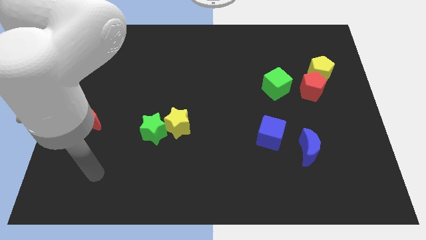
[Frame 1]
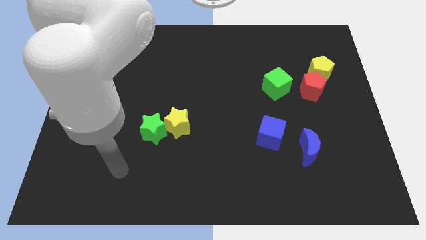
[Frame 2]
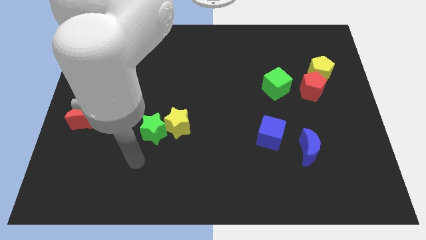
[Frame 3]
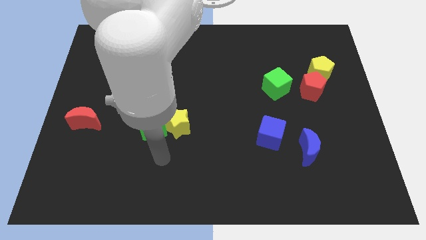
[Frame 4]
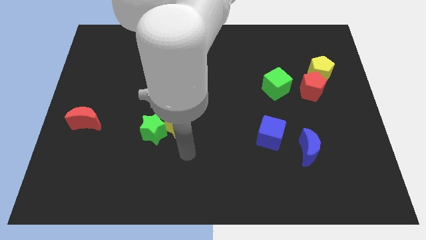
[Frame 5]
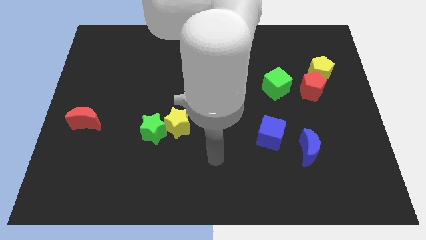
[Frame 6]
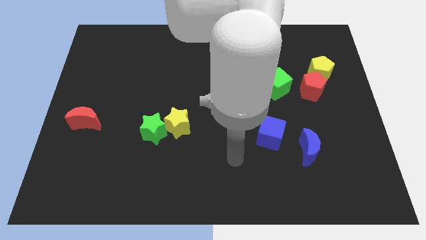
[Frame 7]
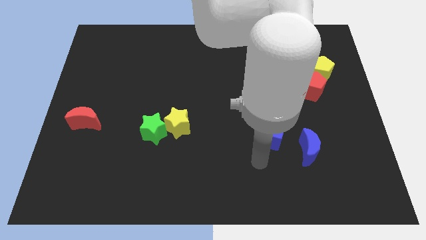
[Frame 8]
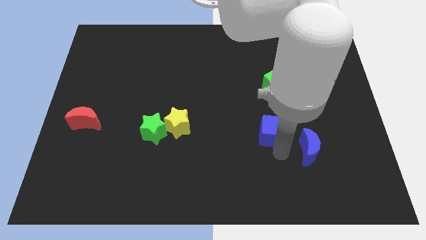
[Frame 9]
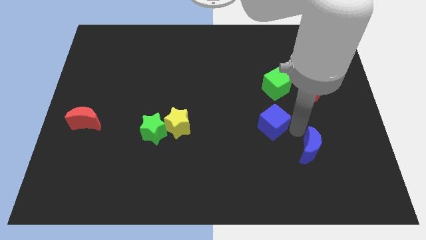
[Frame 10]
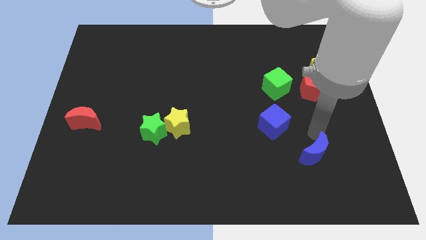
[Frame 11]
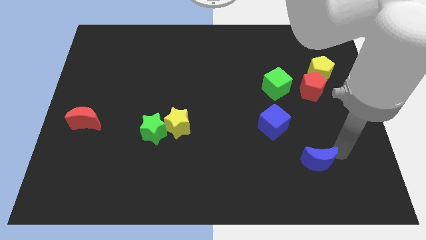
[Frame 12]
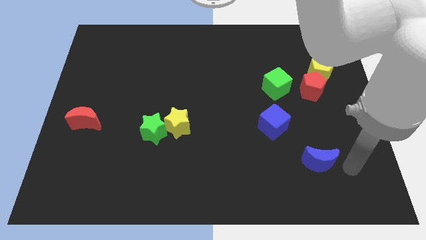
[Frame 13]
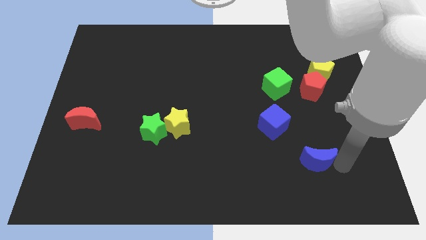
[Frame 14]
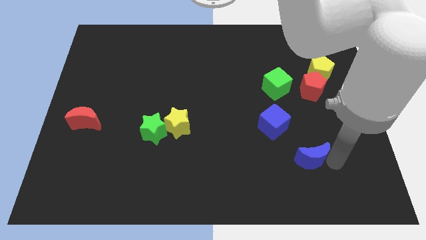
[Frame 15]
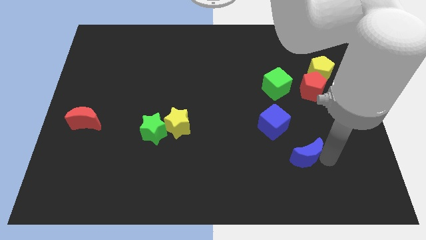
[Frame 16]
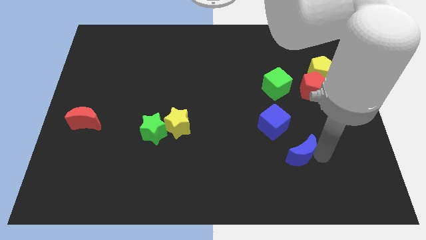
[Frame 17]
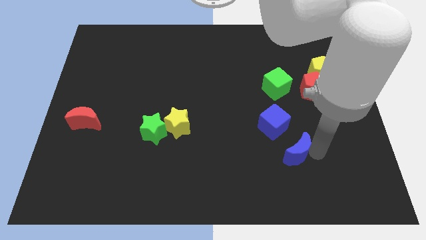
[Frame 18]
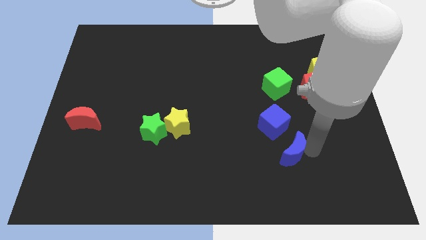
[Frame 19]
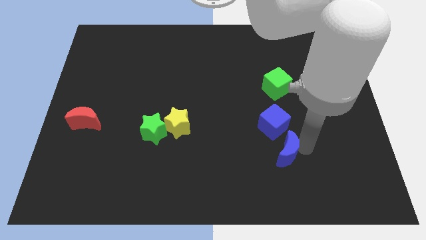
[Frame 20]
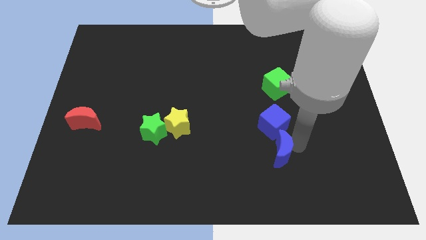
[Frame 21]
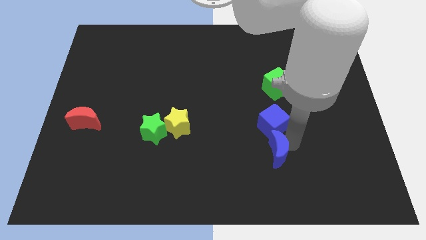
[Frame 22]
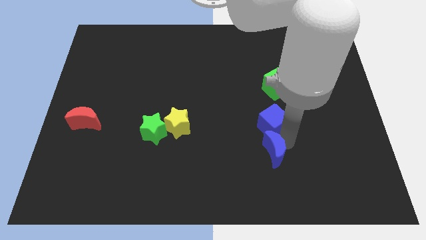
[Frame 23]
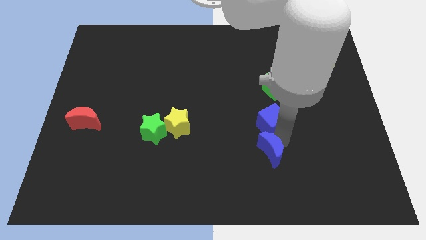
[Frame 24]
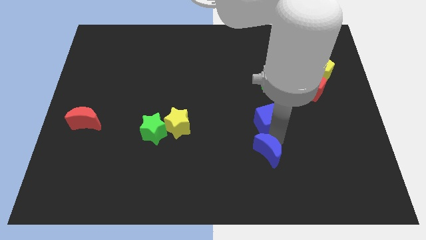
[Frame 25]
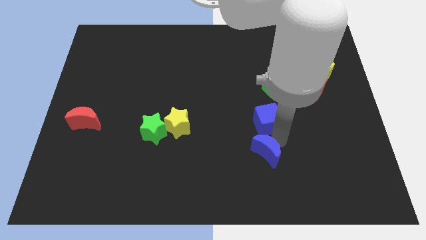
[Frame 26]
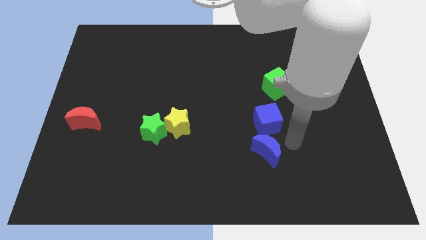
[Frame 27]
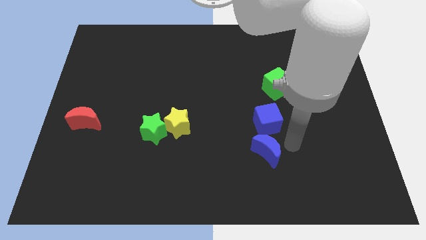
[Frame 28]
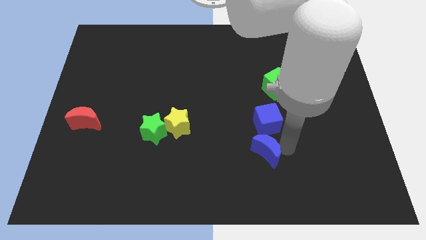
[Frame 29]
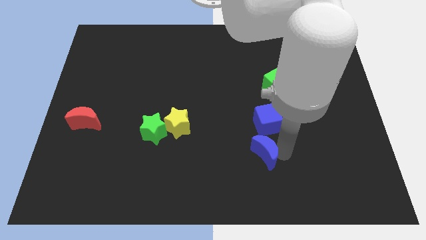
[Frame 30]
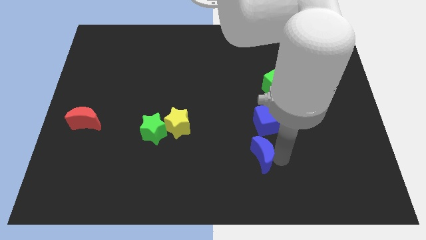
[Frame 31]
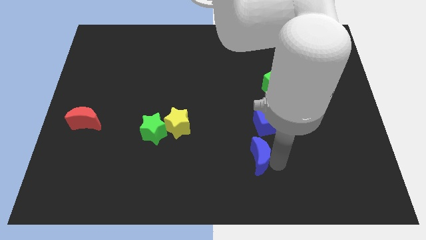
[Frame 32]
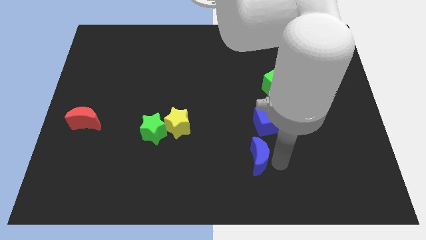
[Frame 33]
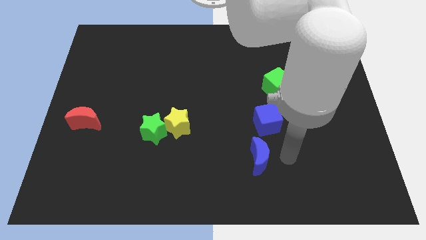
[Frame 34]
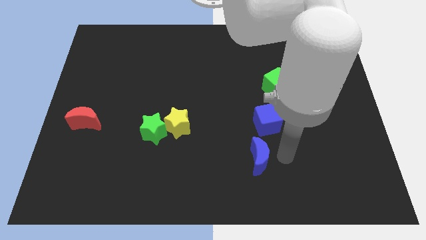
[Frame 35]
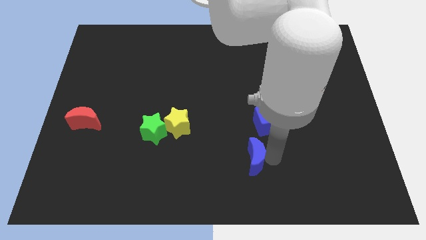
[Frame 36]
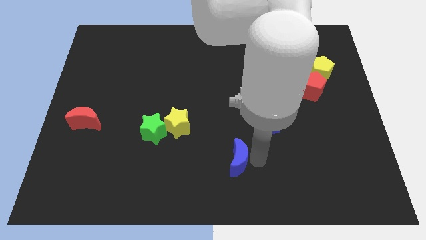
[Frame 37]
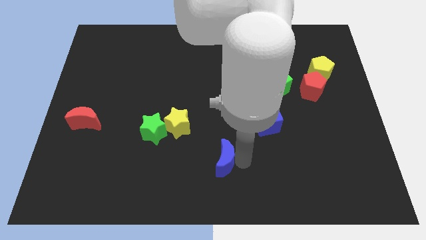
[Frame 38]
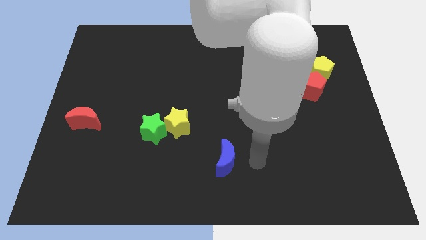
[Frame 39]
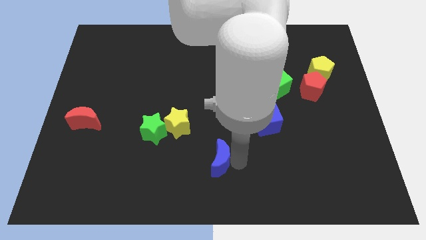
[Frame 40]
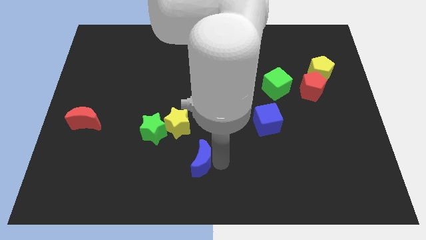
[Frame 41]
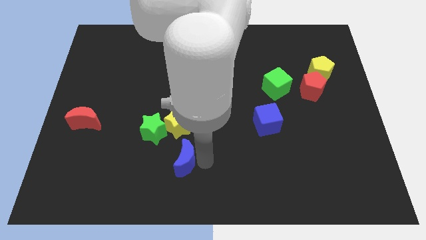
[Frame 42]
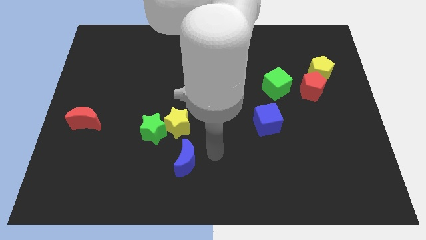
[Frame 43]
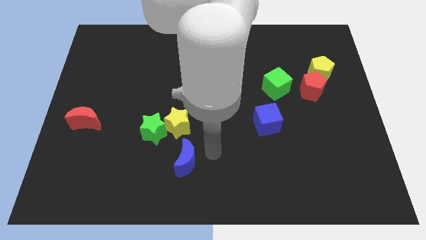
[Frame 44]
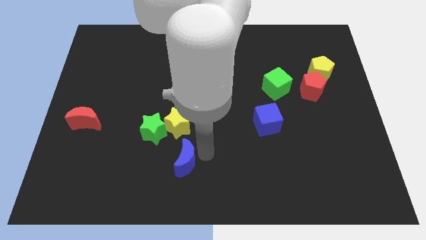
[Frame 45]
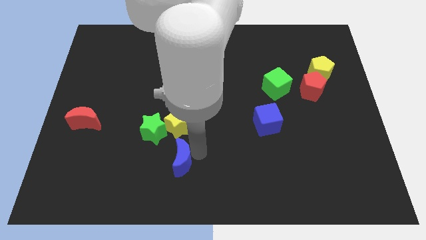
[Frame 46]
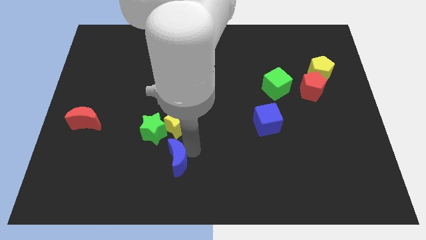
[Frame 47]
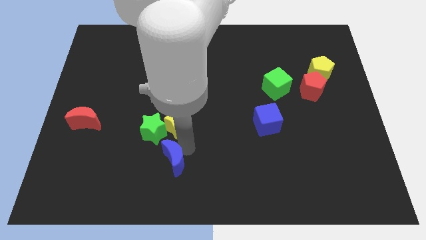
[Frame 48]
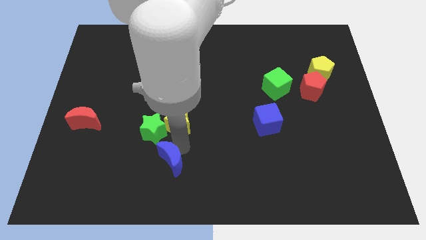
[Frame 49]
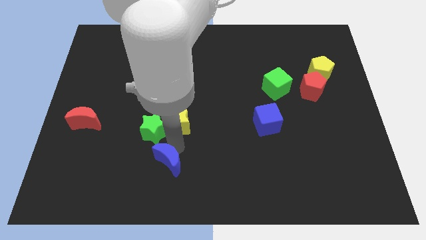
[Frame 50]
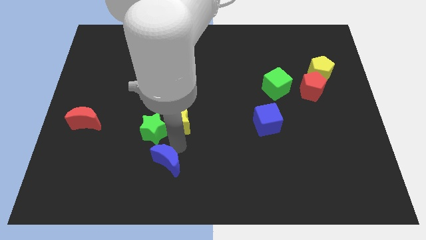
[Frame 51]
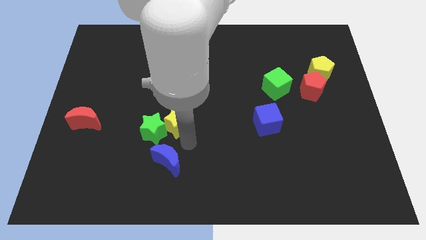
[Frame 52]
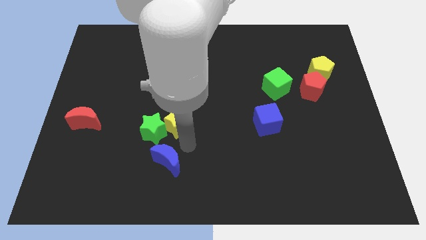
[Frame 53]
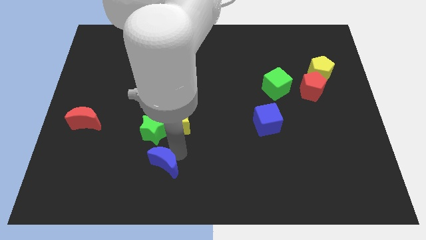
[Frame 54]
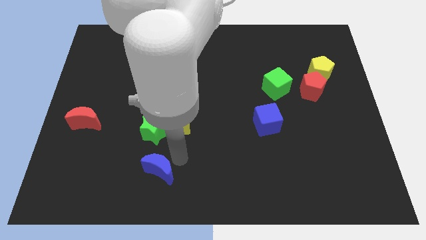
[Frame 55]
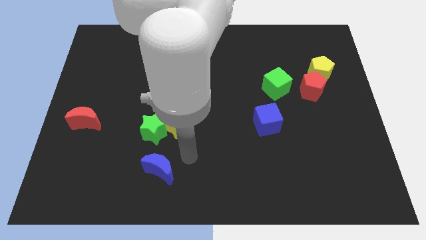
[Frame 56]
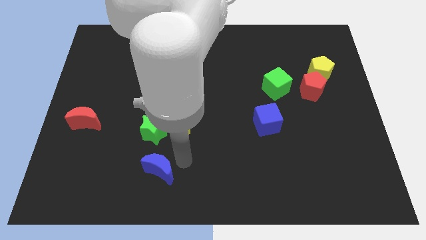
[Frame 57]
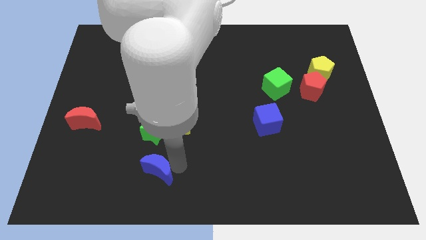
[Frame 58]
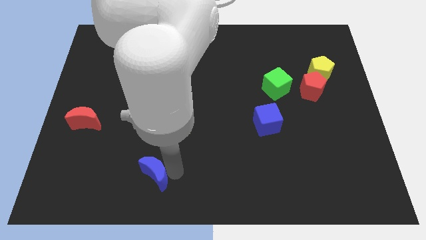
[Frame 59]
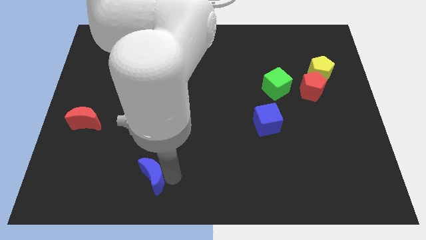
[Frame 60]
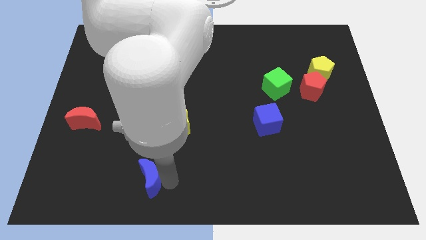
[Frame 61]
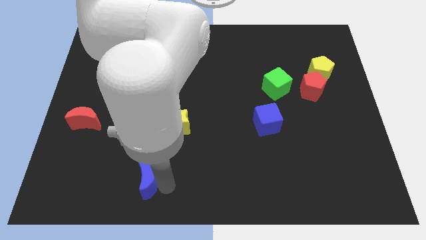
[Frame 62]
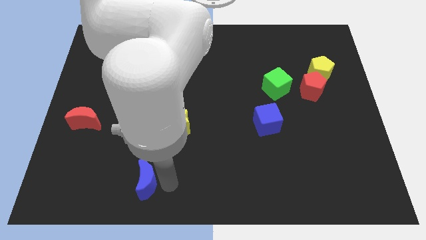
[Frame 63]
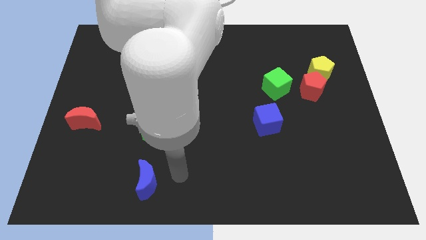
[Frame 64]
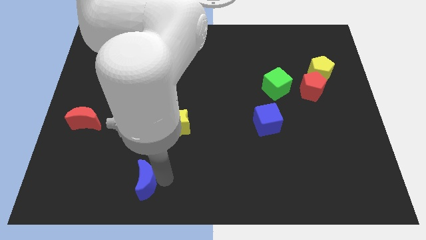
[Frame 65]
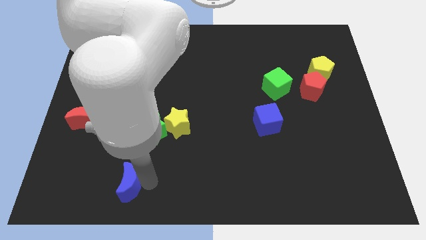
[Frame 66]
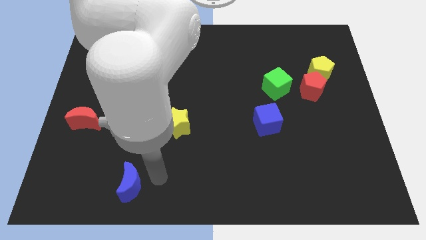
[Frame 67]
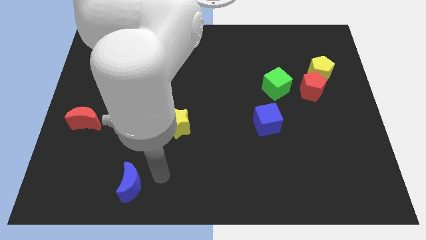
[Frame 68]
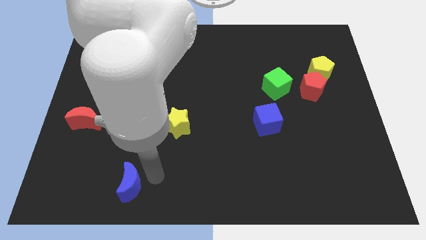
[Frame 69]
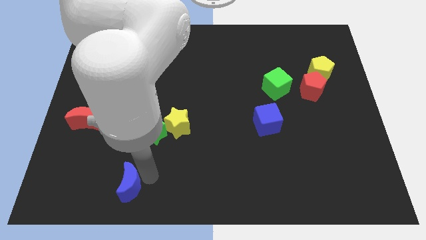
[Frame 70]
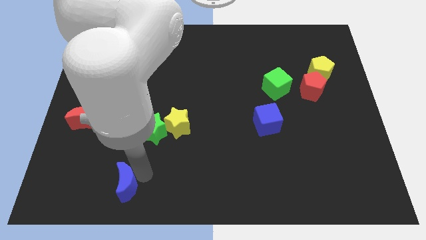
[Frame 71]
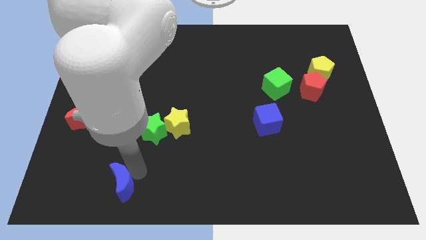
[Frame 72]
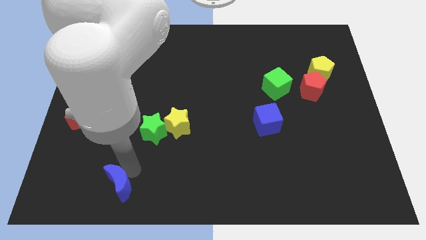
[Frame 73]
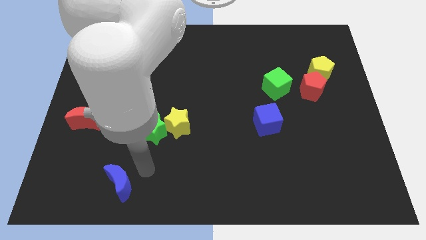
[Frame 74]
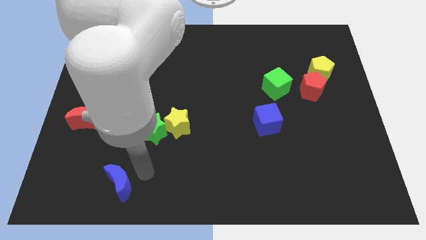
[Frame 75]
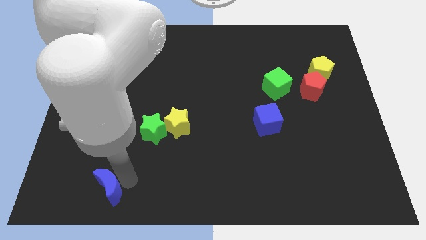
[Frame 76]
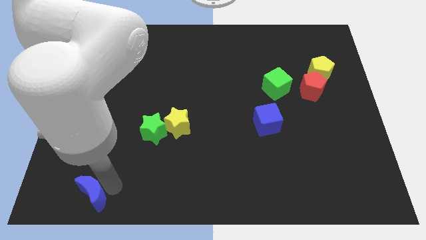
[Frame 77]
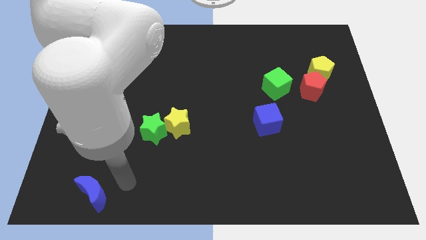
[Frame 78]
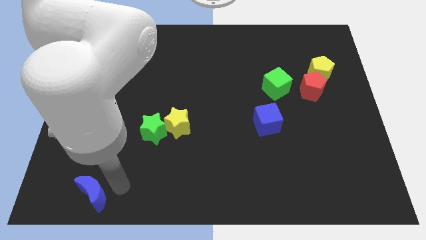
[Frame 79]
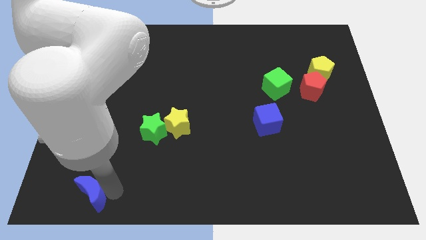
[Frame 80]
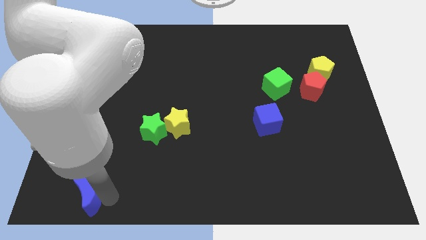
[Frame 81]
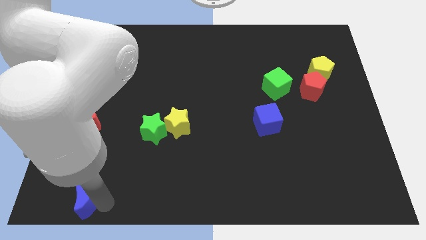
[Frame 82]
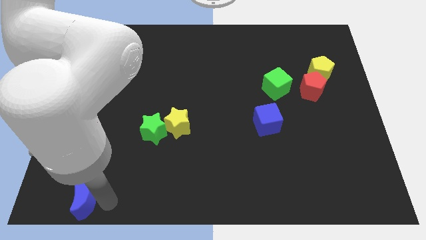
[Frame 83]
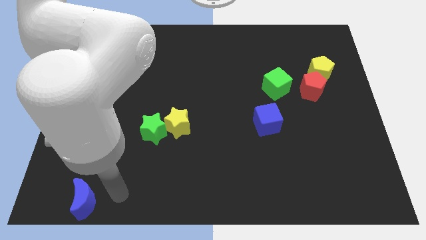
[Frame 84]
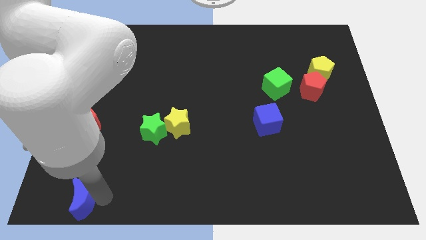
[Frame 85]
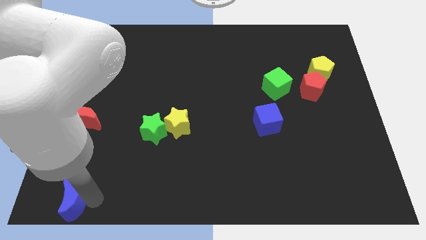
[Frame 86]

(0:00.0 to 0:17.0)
slide the blue moon to the bottom left
